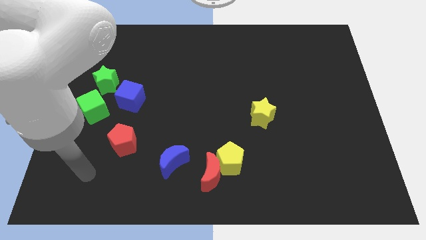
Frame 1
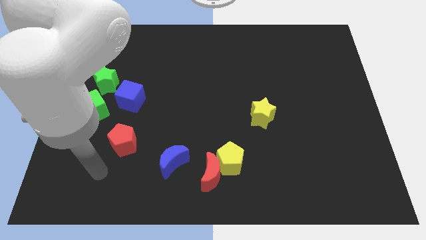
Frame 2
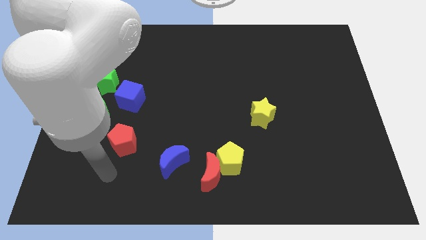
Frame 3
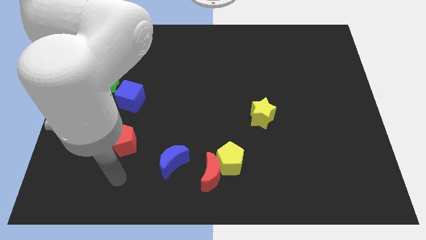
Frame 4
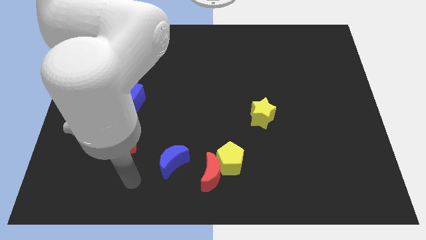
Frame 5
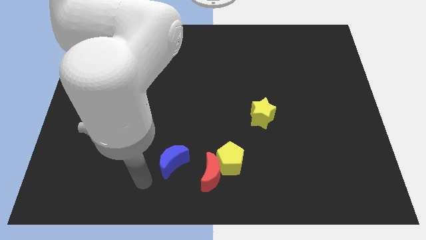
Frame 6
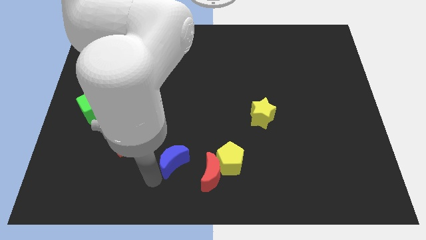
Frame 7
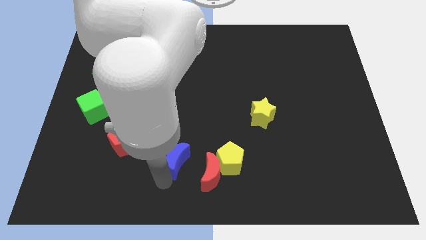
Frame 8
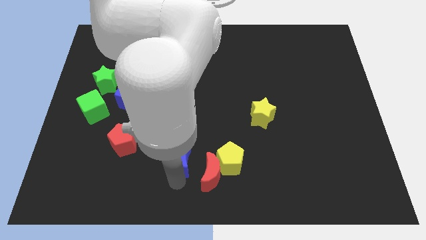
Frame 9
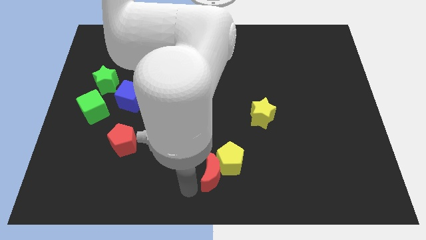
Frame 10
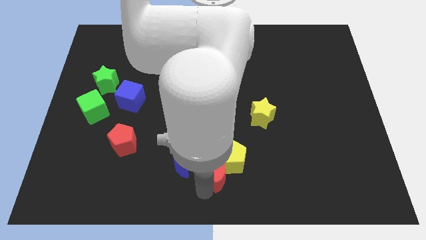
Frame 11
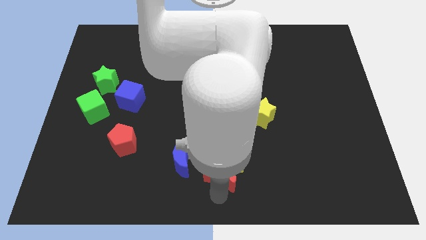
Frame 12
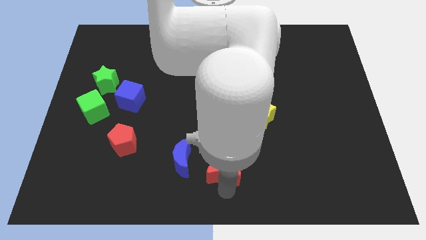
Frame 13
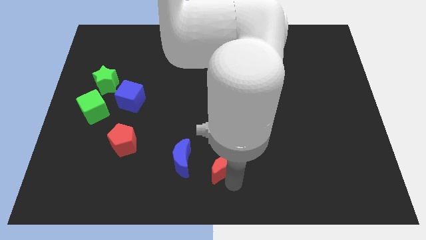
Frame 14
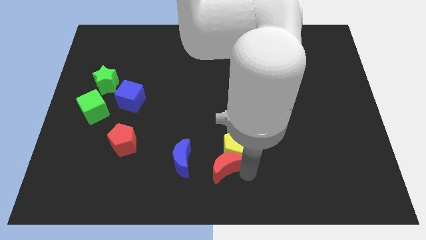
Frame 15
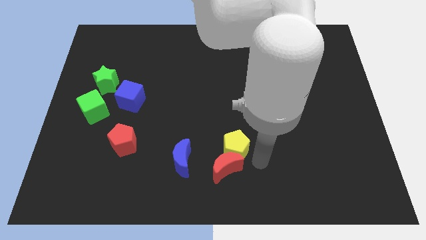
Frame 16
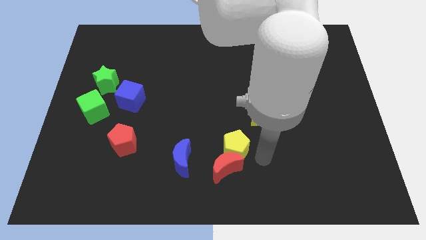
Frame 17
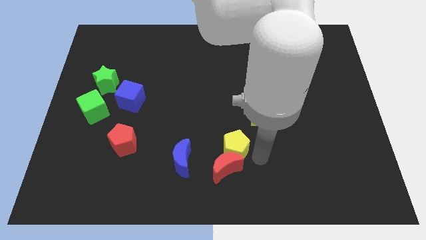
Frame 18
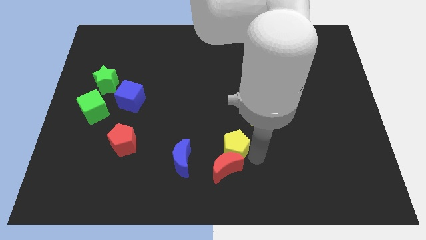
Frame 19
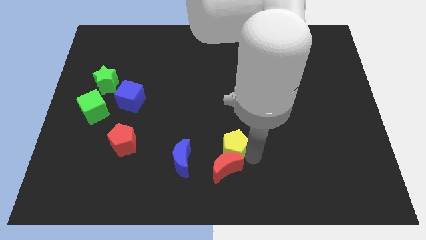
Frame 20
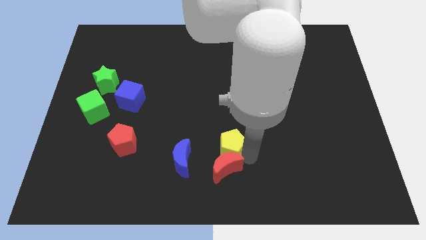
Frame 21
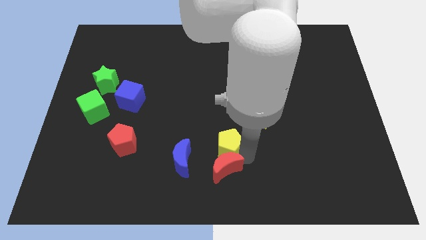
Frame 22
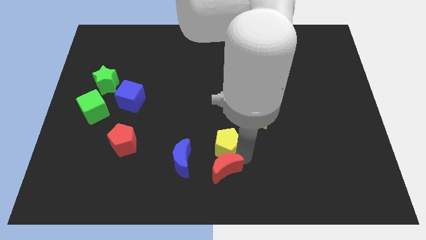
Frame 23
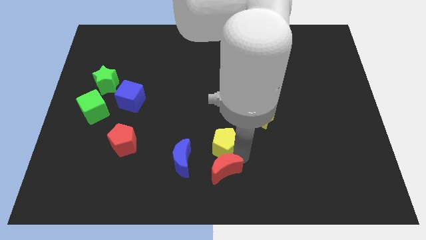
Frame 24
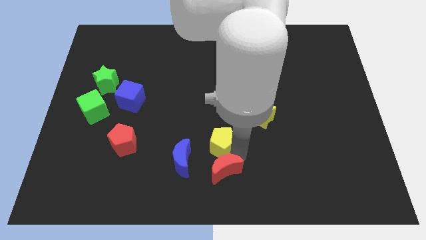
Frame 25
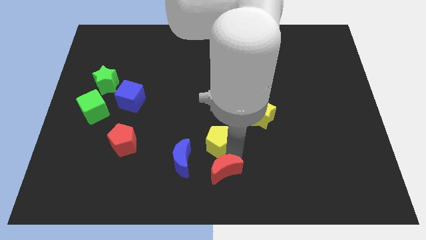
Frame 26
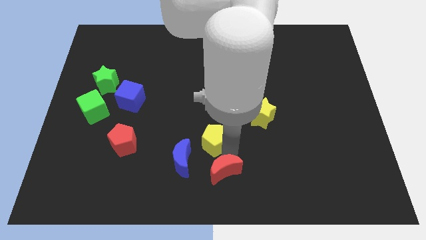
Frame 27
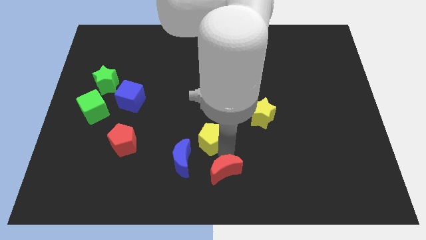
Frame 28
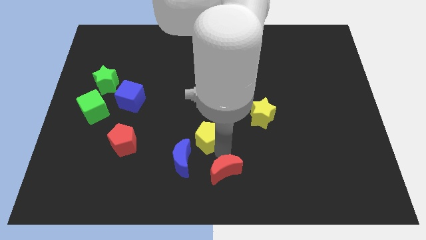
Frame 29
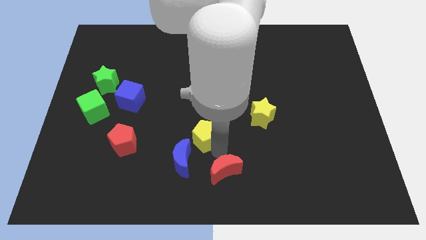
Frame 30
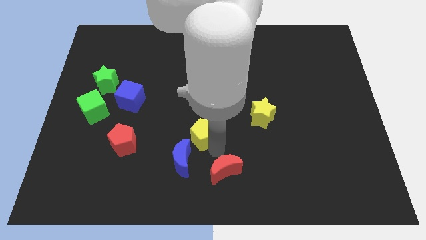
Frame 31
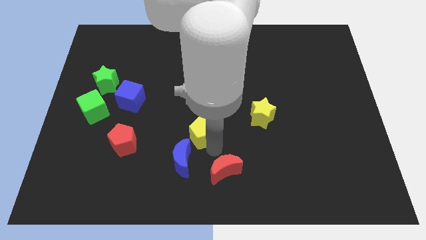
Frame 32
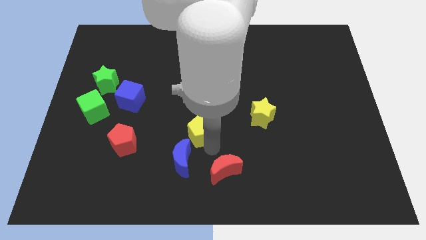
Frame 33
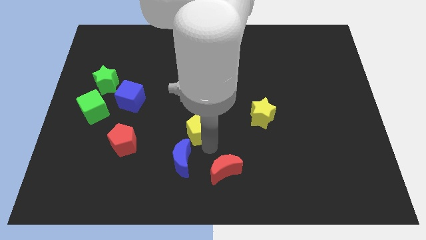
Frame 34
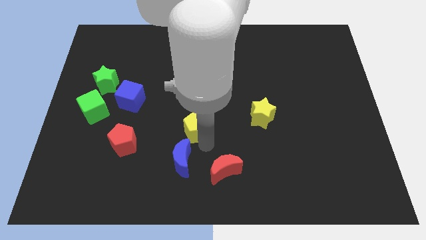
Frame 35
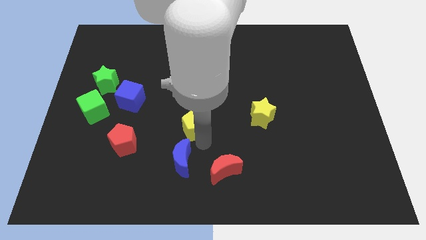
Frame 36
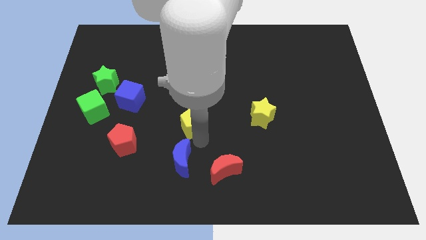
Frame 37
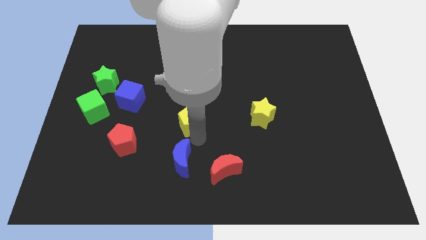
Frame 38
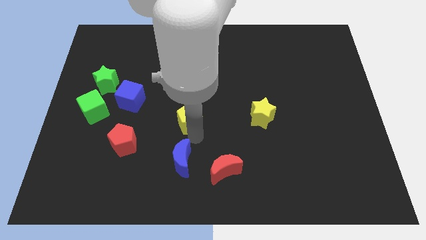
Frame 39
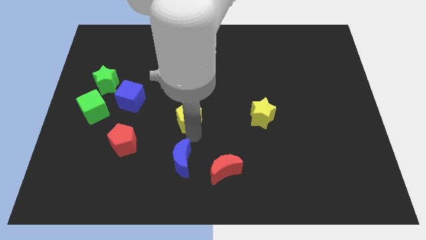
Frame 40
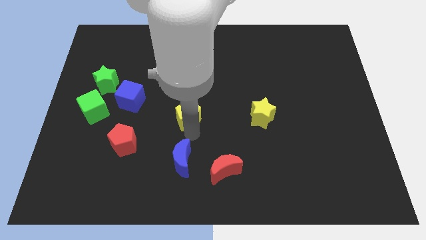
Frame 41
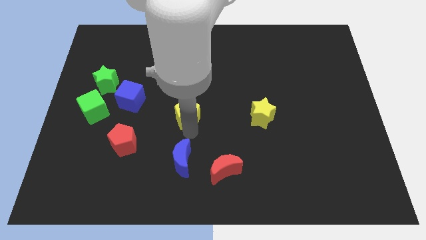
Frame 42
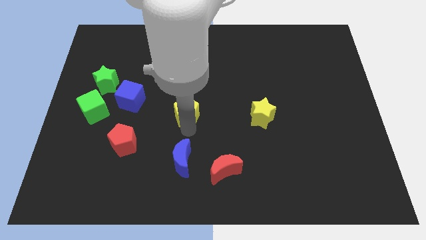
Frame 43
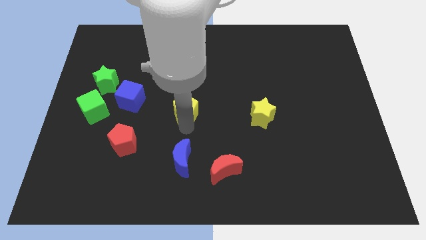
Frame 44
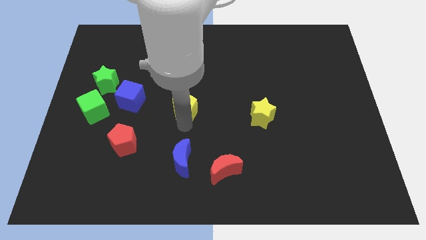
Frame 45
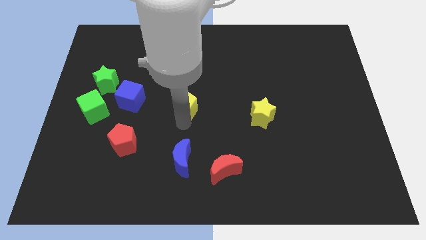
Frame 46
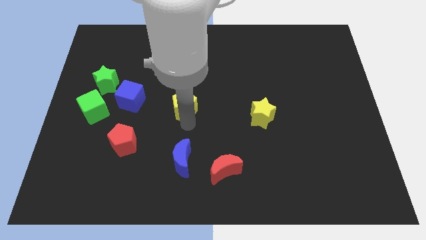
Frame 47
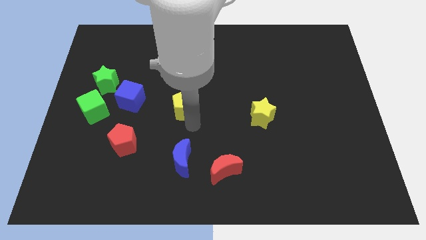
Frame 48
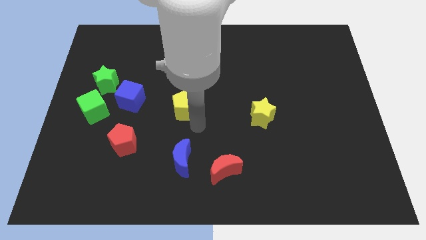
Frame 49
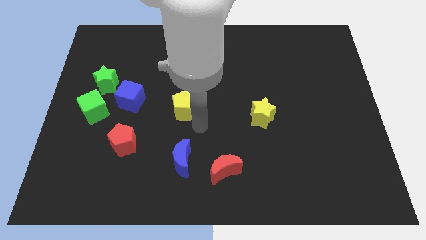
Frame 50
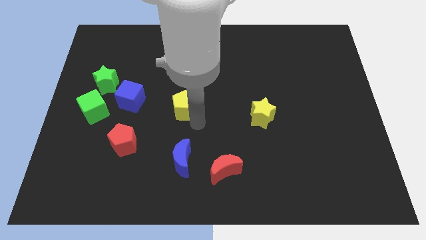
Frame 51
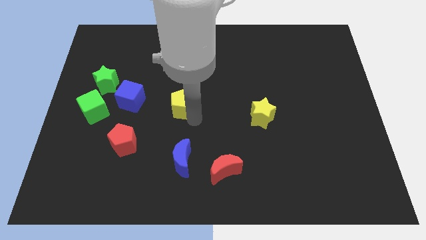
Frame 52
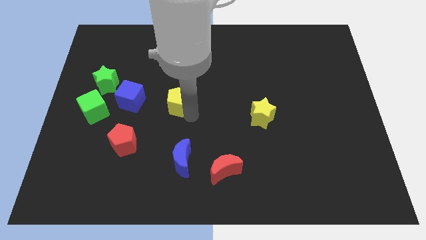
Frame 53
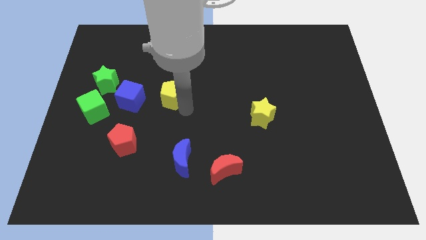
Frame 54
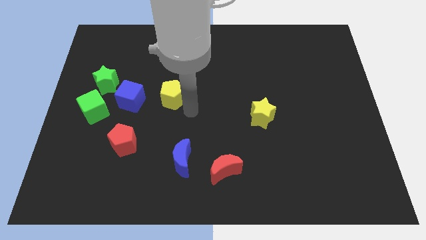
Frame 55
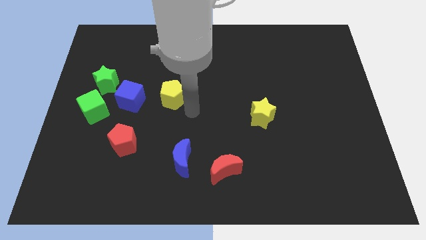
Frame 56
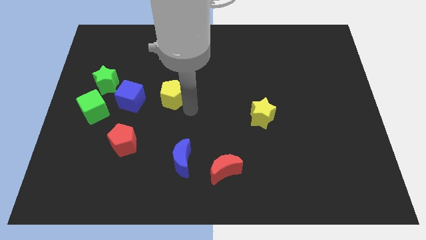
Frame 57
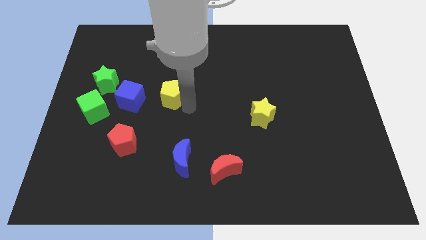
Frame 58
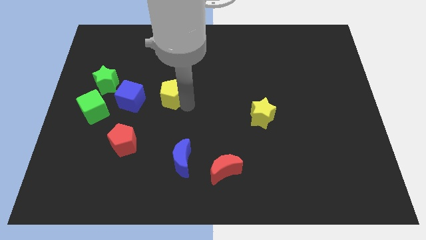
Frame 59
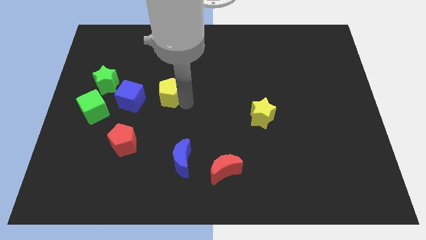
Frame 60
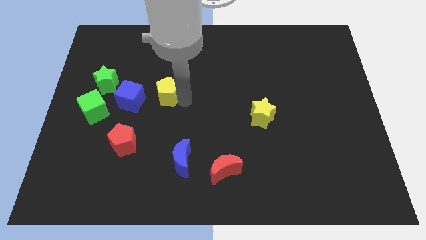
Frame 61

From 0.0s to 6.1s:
put the yellow pentagon to the top right of the blue cube
